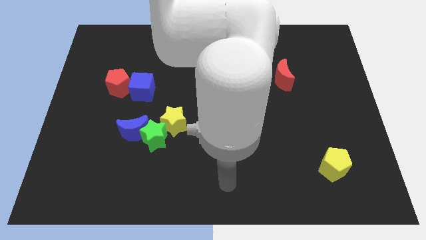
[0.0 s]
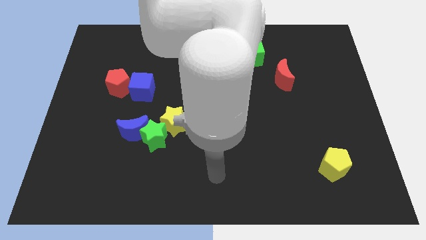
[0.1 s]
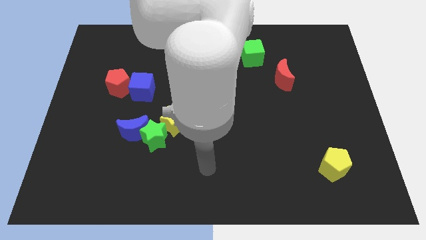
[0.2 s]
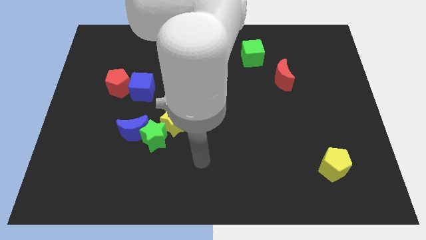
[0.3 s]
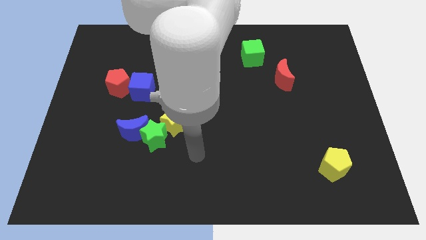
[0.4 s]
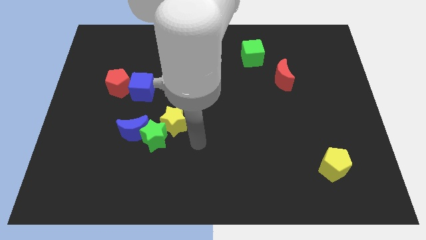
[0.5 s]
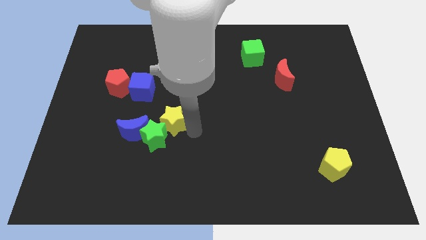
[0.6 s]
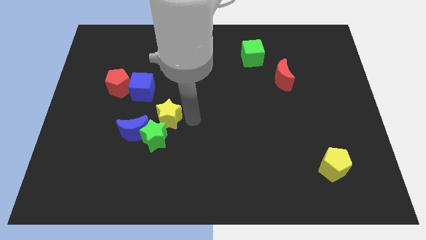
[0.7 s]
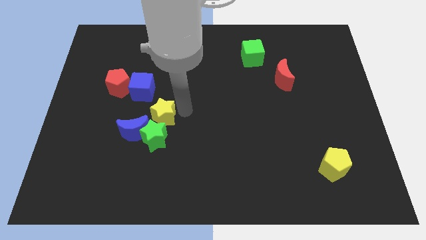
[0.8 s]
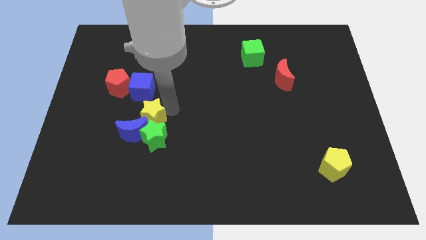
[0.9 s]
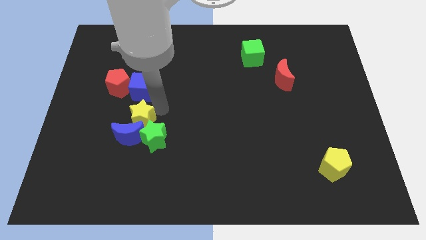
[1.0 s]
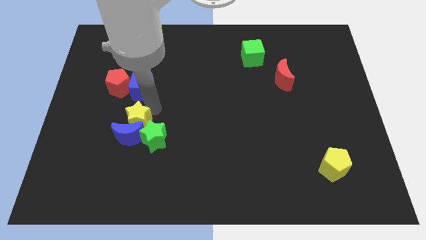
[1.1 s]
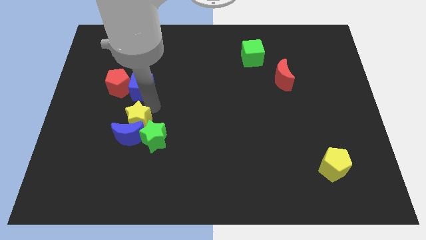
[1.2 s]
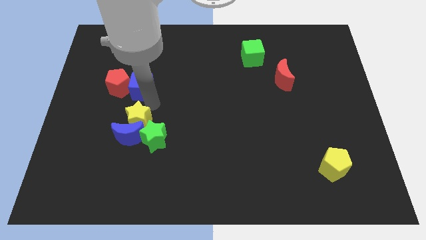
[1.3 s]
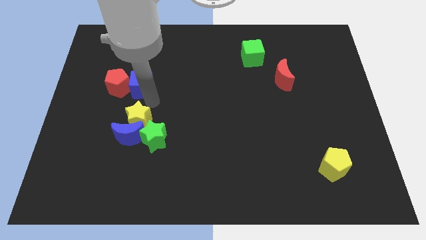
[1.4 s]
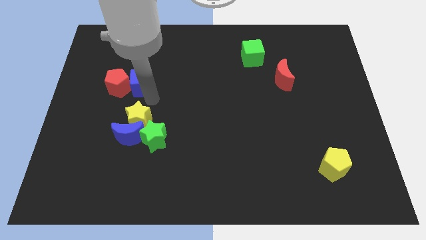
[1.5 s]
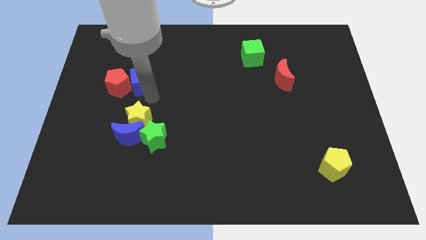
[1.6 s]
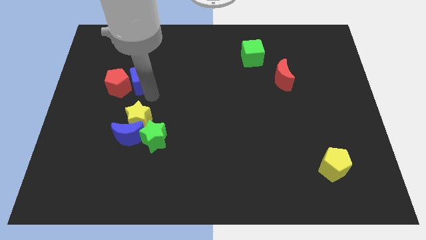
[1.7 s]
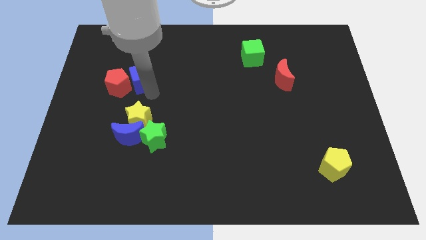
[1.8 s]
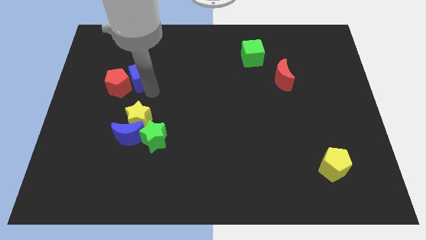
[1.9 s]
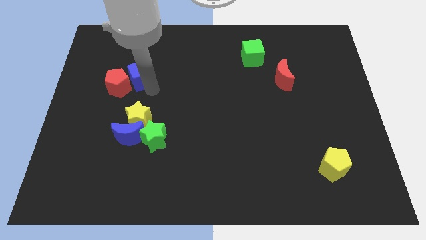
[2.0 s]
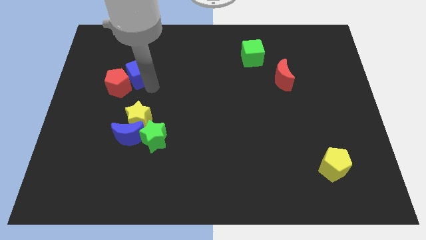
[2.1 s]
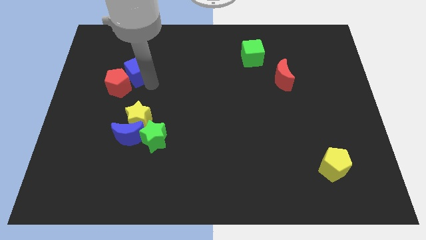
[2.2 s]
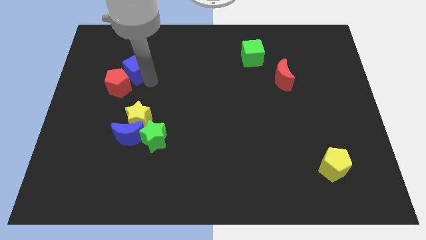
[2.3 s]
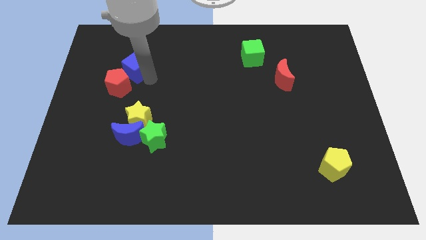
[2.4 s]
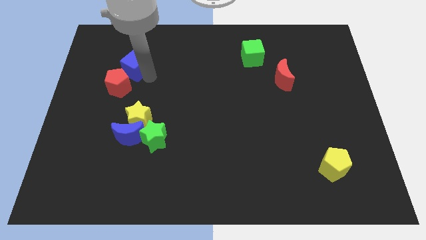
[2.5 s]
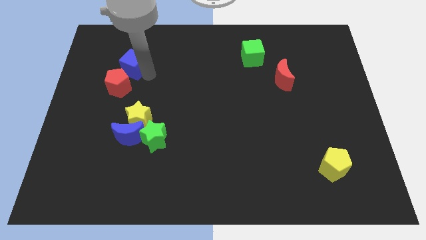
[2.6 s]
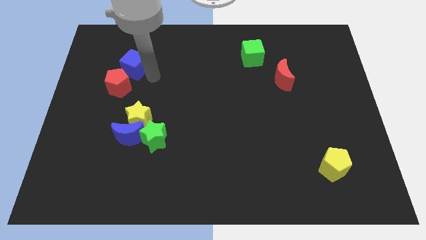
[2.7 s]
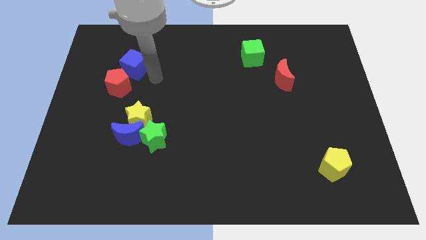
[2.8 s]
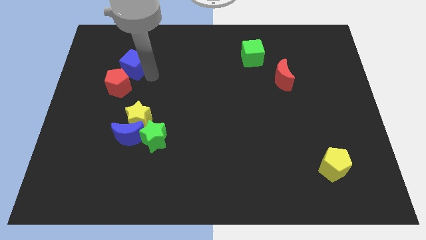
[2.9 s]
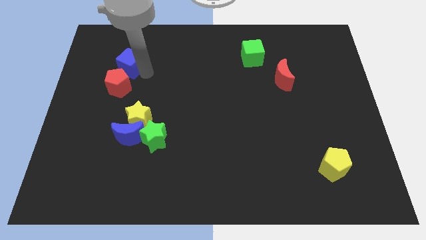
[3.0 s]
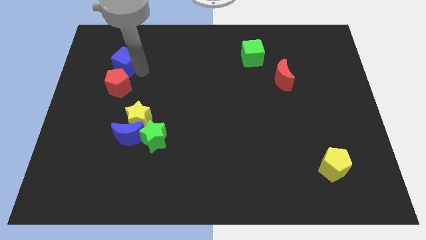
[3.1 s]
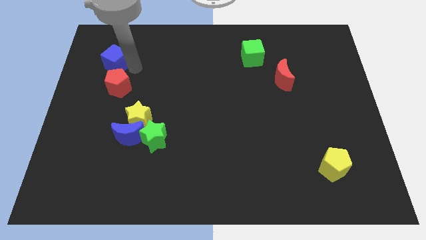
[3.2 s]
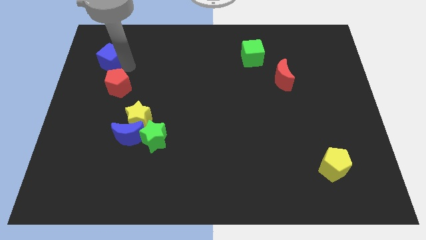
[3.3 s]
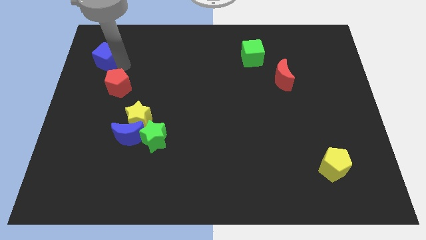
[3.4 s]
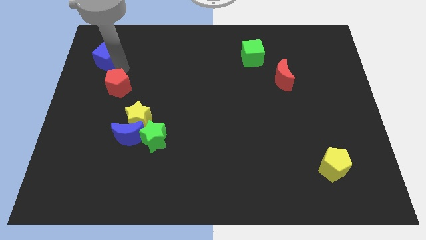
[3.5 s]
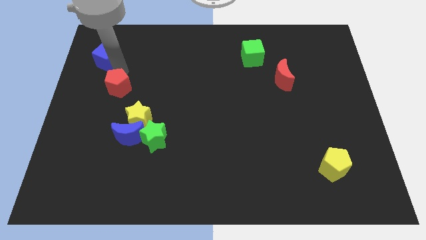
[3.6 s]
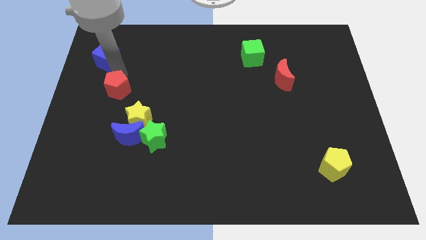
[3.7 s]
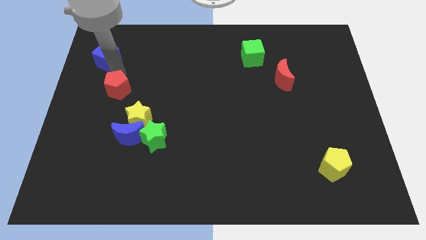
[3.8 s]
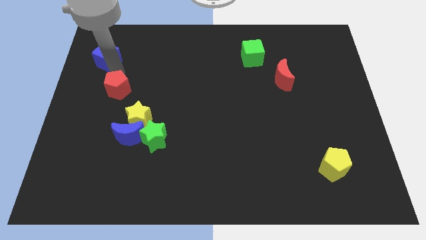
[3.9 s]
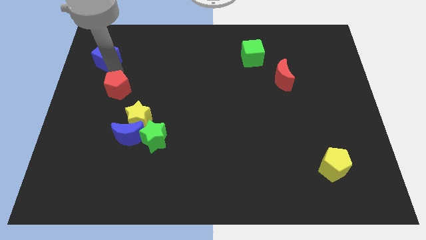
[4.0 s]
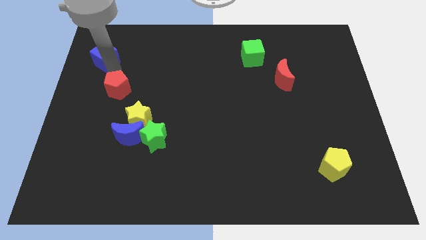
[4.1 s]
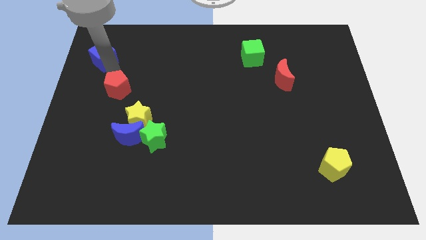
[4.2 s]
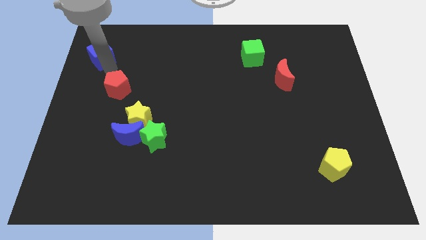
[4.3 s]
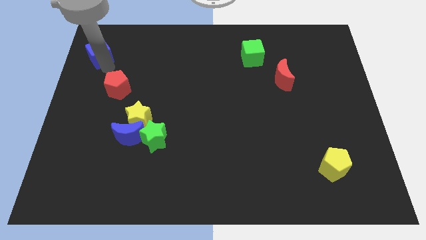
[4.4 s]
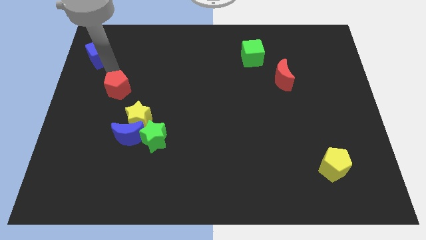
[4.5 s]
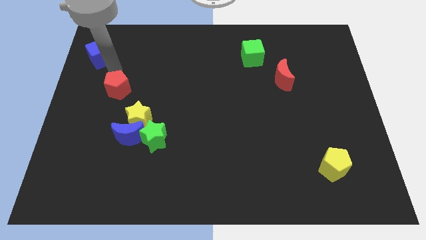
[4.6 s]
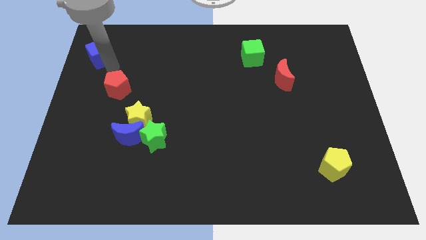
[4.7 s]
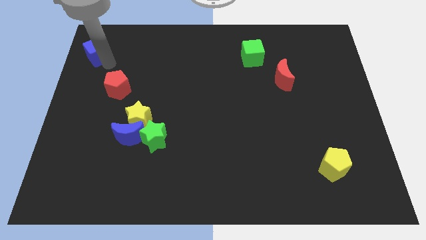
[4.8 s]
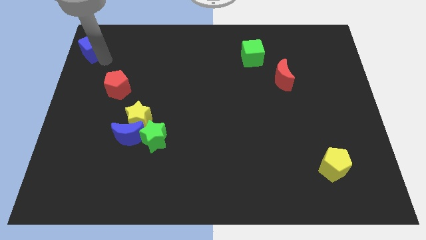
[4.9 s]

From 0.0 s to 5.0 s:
put the blue cube to the top left

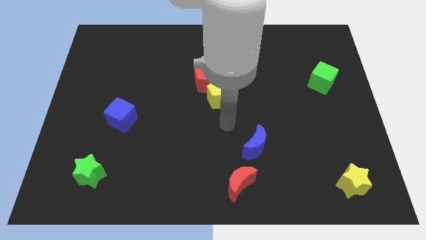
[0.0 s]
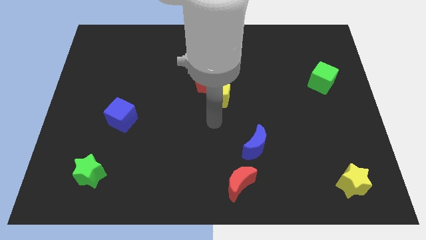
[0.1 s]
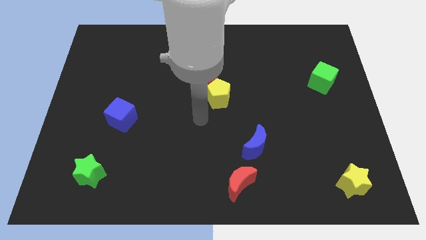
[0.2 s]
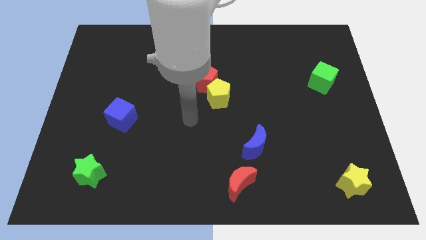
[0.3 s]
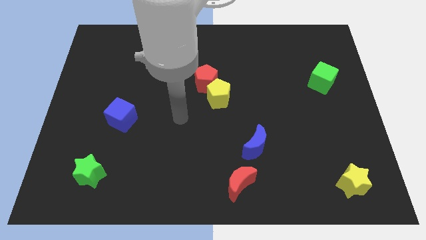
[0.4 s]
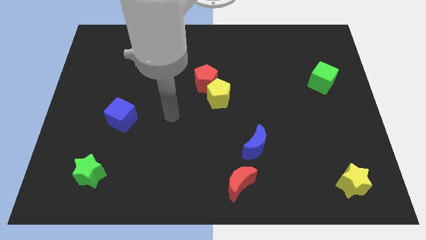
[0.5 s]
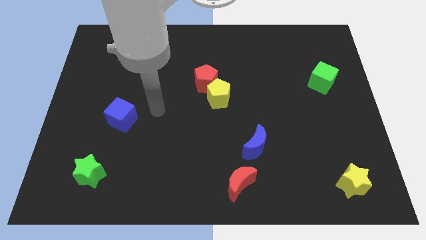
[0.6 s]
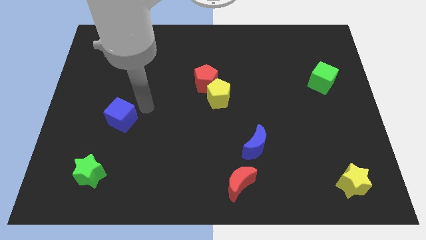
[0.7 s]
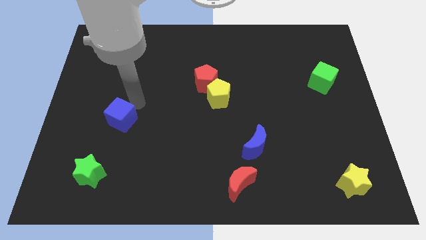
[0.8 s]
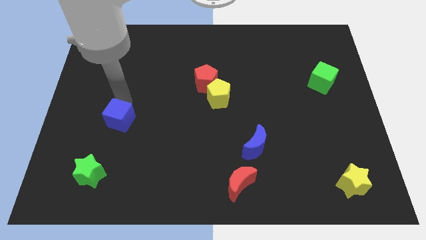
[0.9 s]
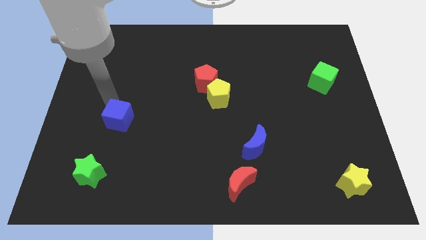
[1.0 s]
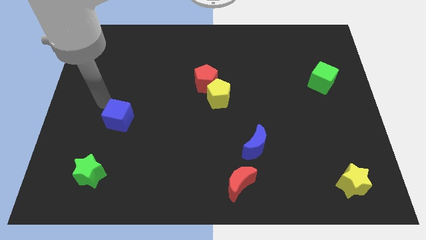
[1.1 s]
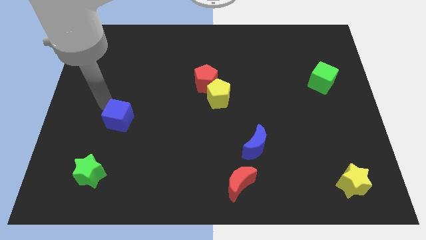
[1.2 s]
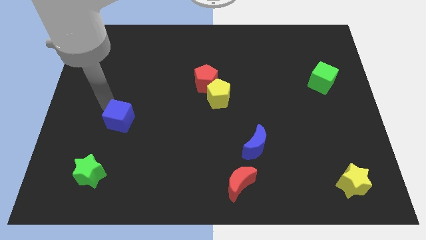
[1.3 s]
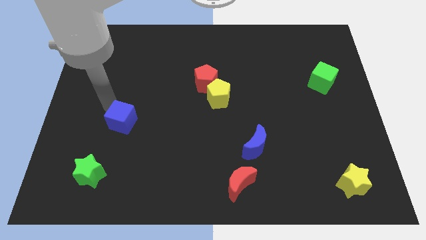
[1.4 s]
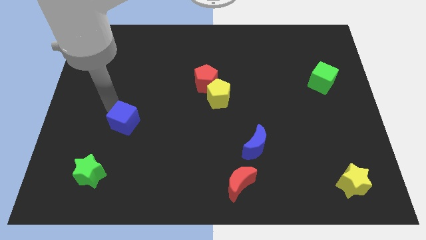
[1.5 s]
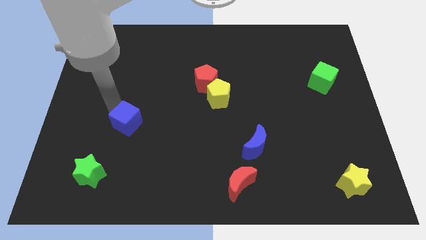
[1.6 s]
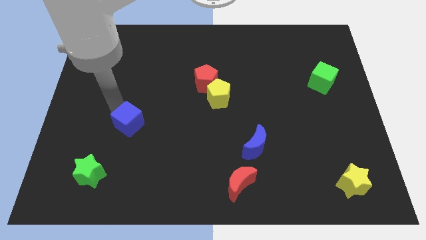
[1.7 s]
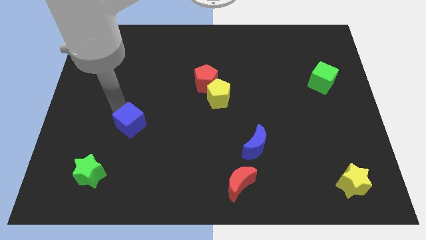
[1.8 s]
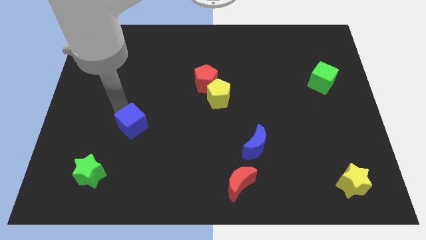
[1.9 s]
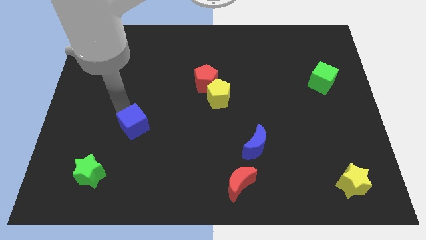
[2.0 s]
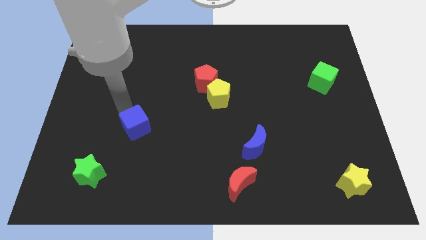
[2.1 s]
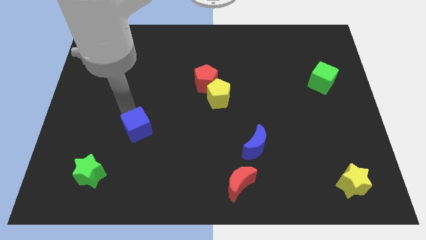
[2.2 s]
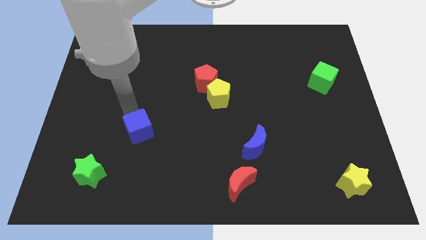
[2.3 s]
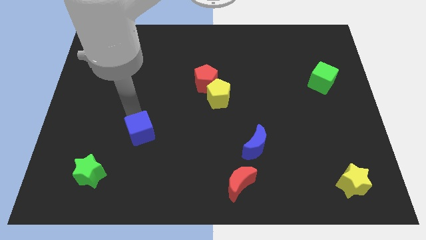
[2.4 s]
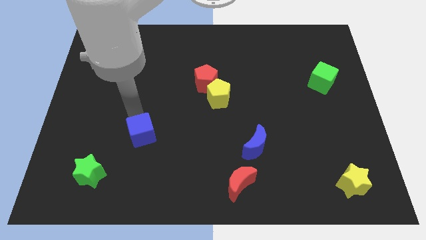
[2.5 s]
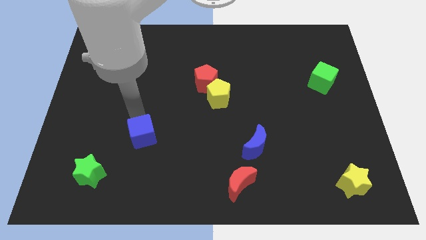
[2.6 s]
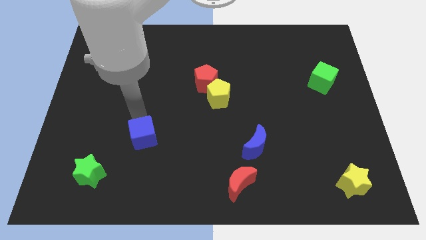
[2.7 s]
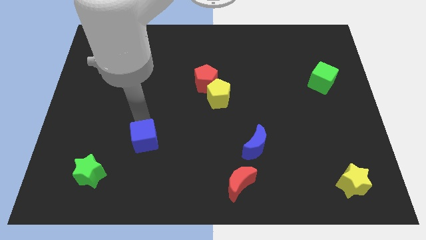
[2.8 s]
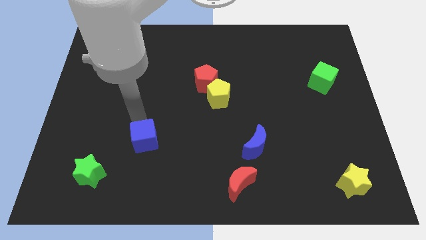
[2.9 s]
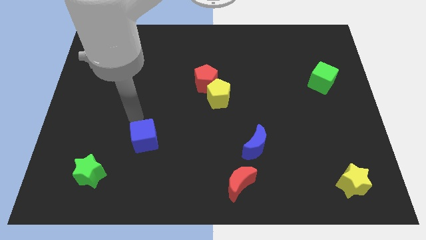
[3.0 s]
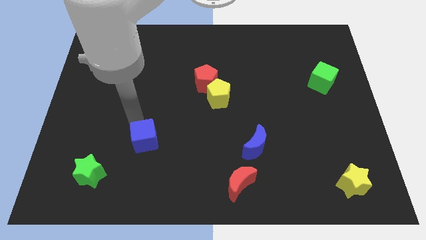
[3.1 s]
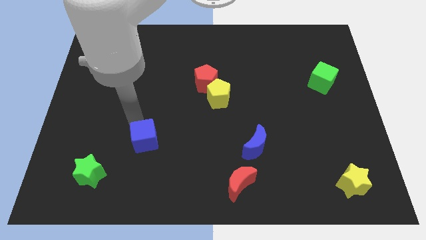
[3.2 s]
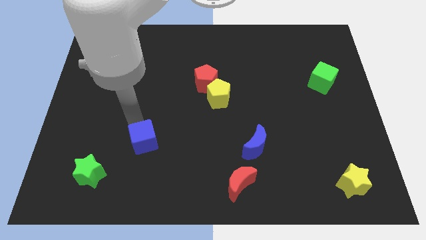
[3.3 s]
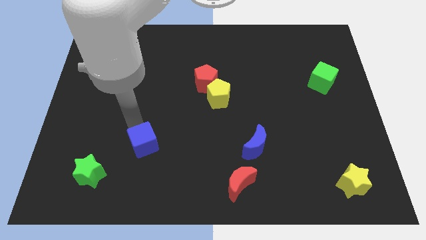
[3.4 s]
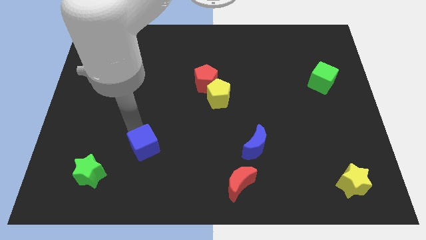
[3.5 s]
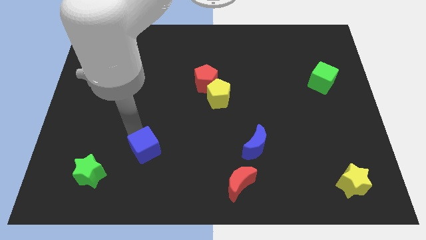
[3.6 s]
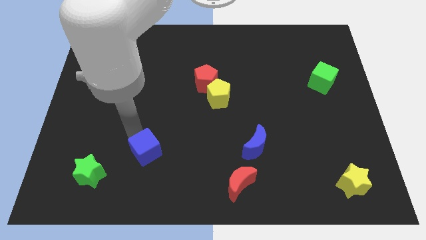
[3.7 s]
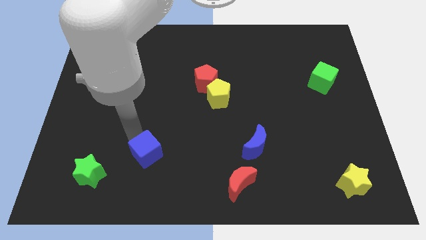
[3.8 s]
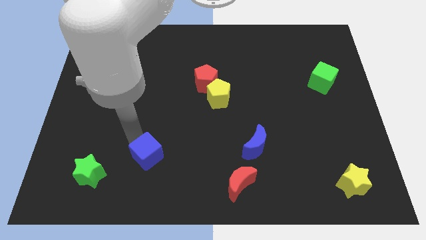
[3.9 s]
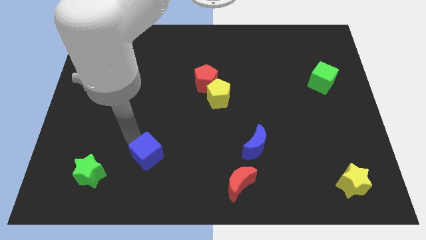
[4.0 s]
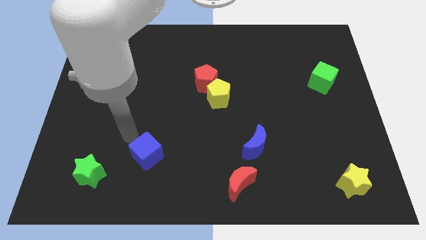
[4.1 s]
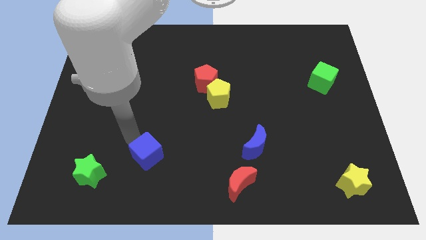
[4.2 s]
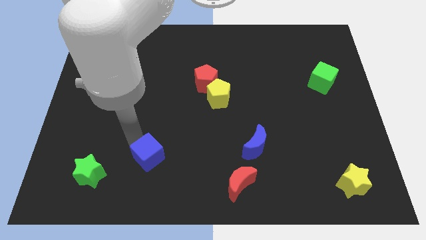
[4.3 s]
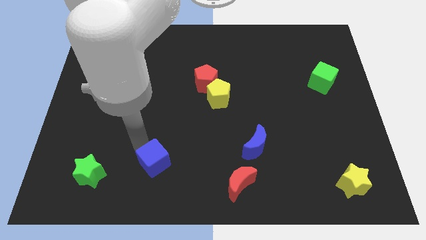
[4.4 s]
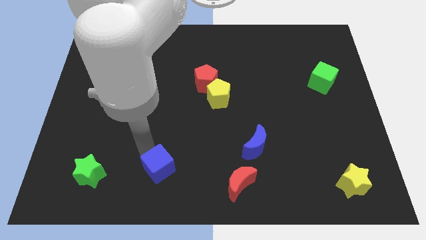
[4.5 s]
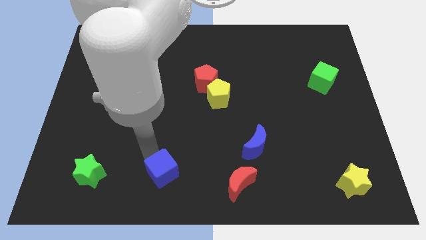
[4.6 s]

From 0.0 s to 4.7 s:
push the blue cube to the bottom
